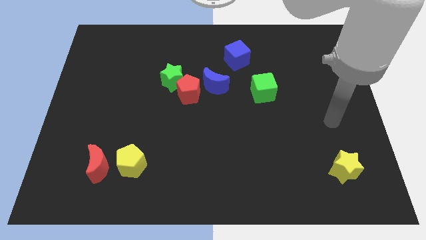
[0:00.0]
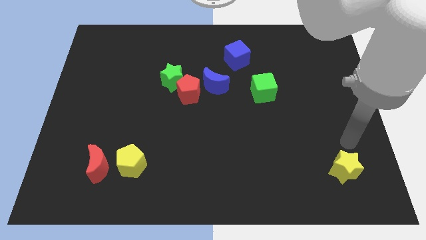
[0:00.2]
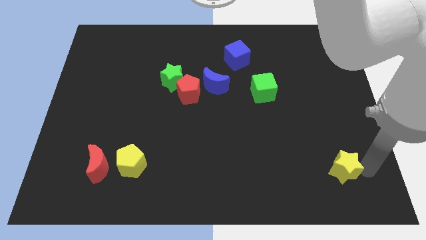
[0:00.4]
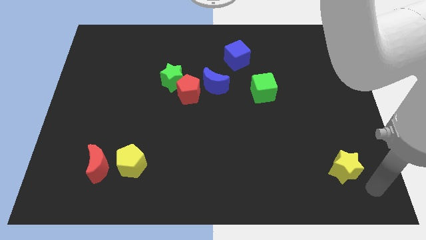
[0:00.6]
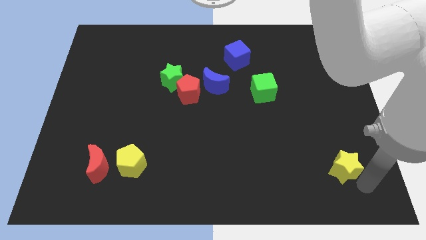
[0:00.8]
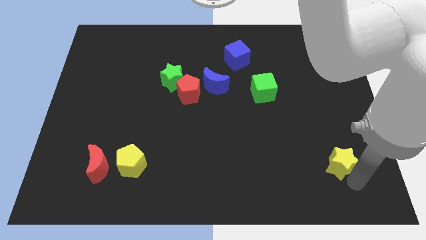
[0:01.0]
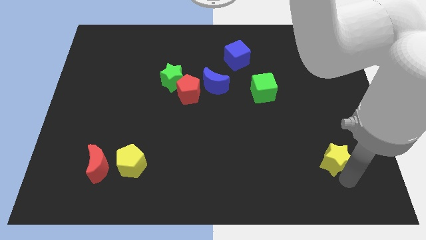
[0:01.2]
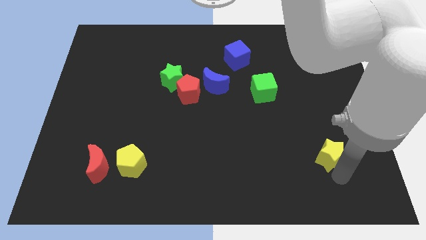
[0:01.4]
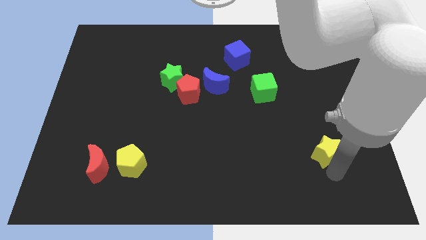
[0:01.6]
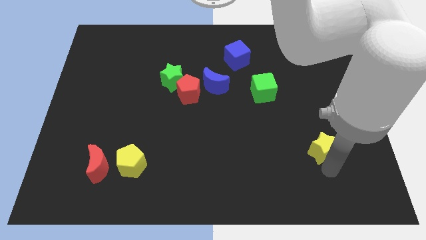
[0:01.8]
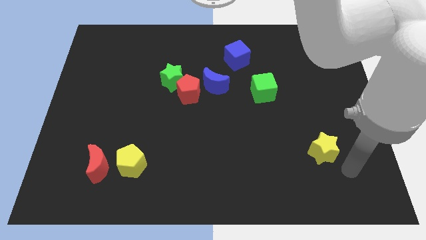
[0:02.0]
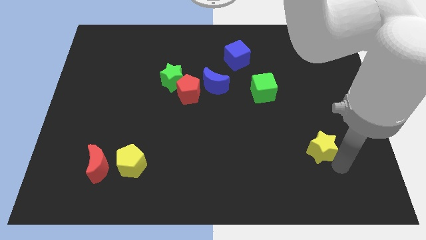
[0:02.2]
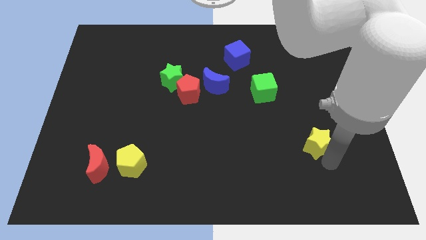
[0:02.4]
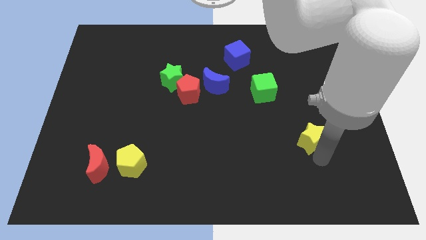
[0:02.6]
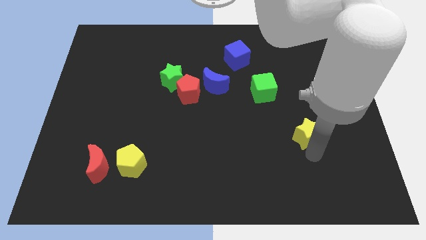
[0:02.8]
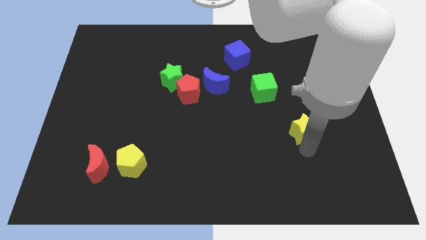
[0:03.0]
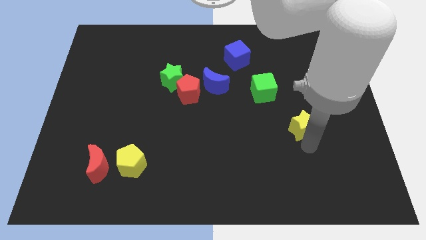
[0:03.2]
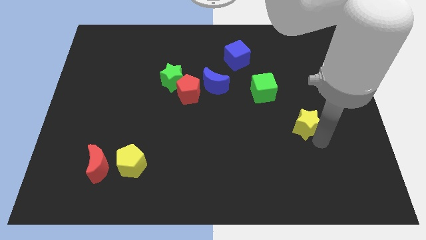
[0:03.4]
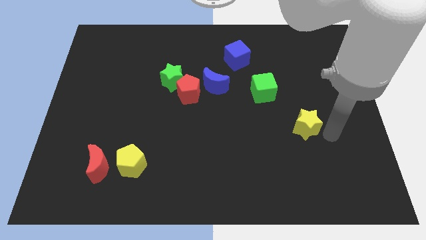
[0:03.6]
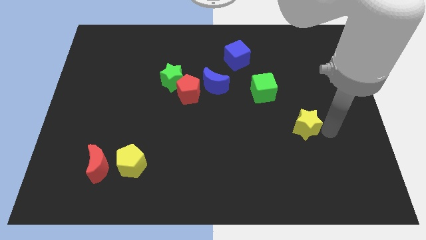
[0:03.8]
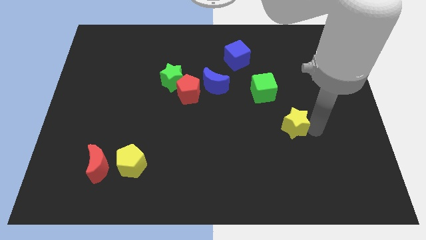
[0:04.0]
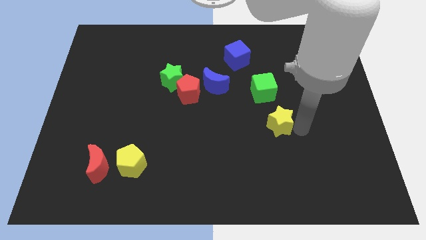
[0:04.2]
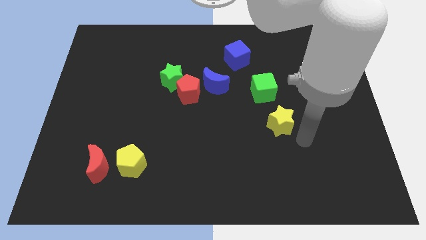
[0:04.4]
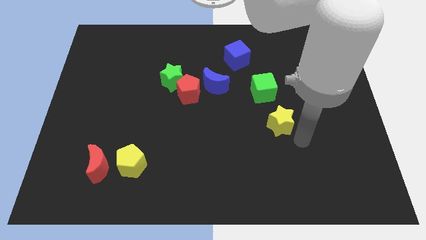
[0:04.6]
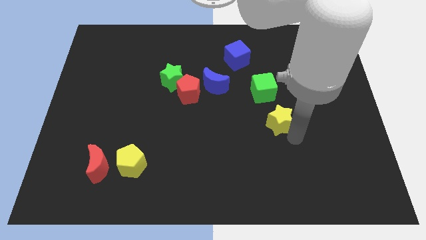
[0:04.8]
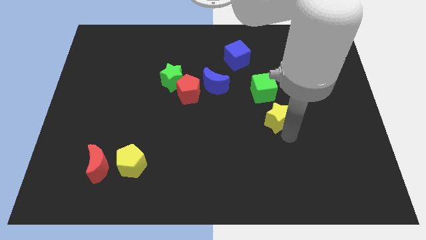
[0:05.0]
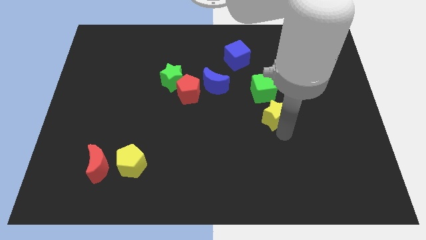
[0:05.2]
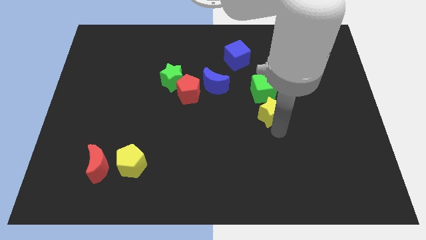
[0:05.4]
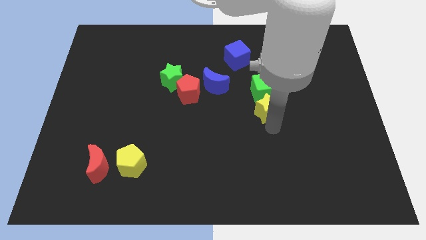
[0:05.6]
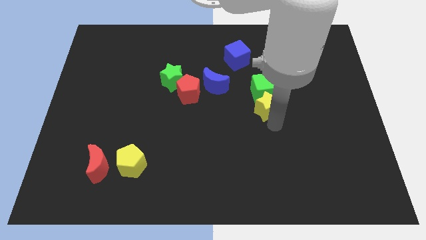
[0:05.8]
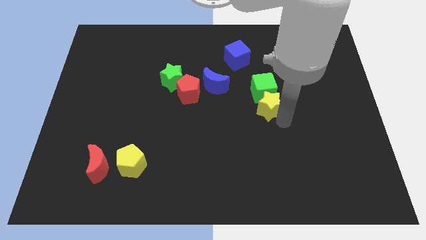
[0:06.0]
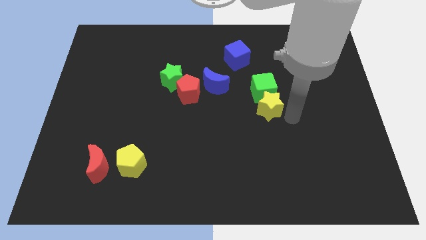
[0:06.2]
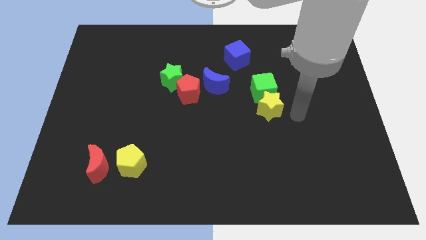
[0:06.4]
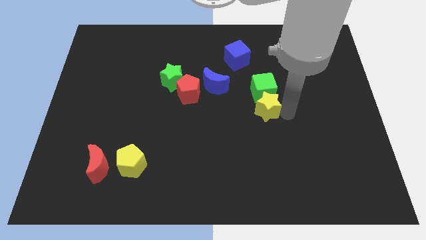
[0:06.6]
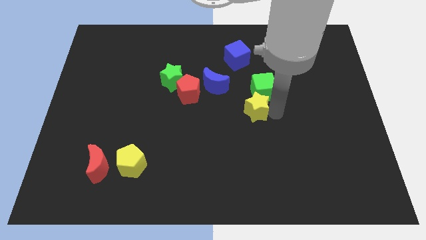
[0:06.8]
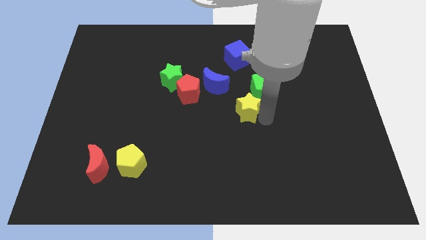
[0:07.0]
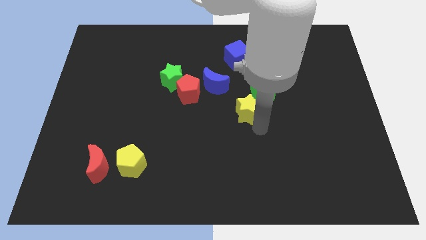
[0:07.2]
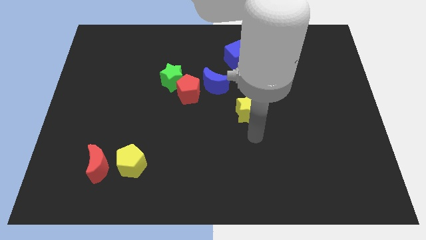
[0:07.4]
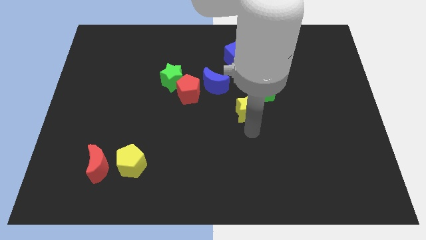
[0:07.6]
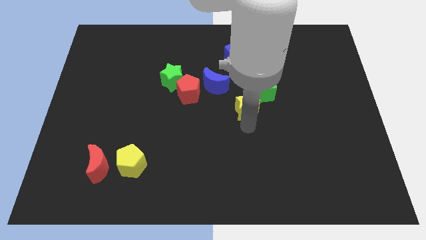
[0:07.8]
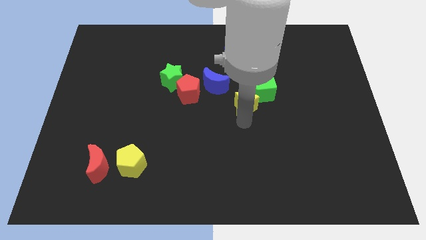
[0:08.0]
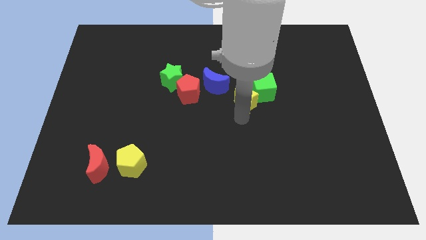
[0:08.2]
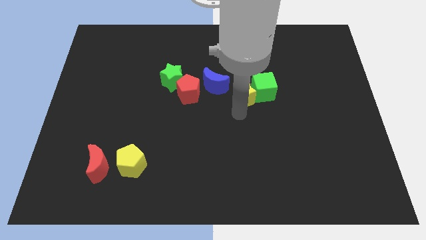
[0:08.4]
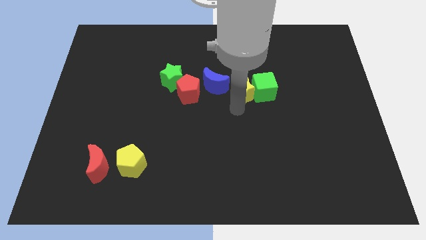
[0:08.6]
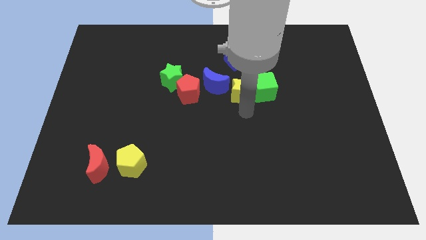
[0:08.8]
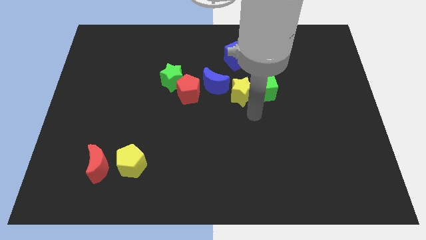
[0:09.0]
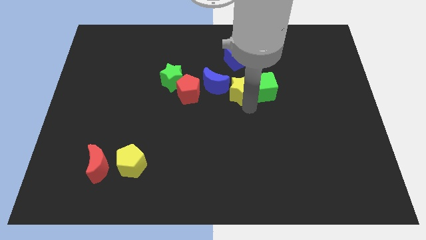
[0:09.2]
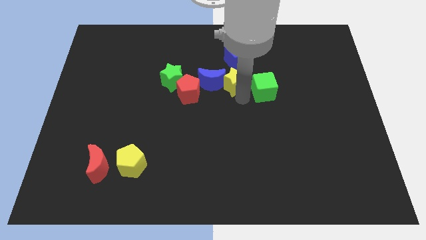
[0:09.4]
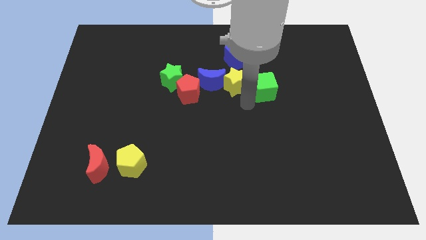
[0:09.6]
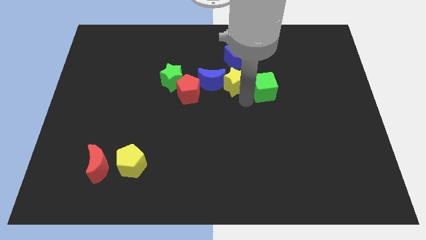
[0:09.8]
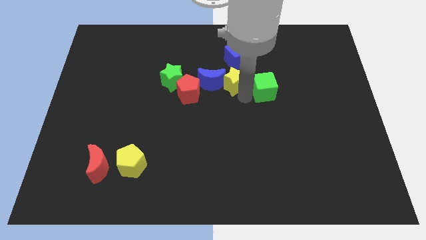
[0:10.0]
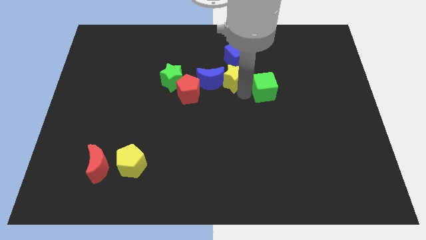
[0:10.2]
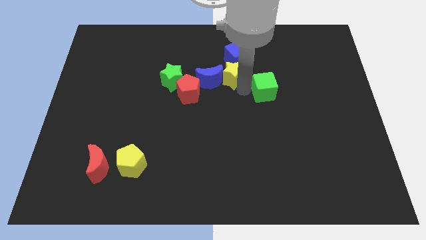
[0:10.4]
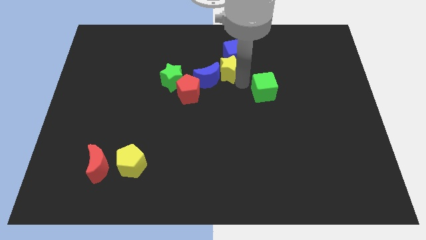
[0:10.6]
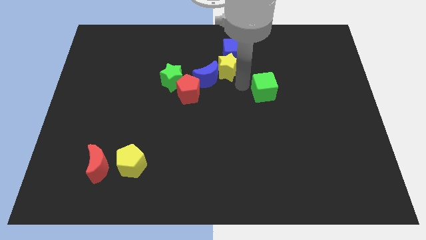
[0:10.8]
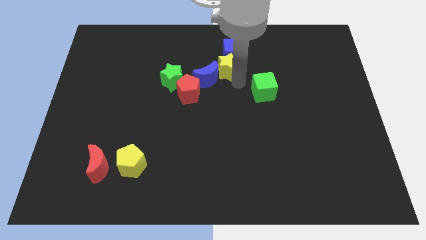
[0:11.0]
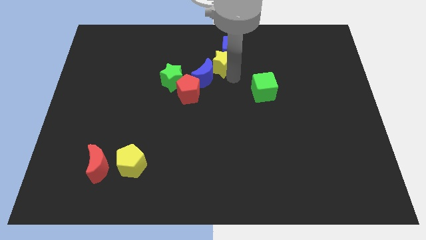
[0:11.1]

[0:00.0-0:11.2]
push the yellow star to the top of the blue moon
